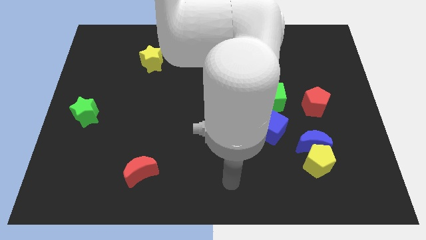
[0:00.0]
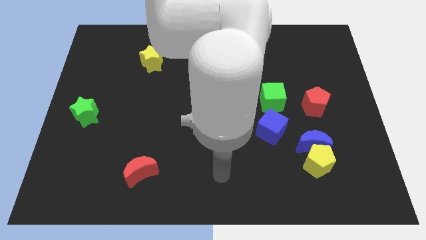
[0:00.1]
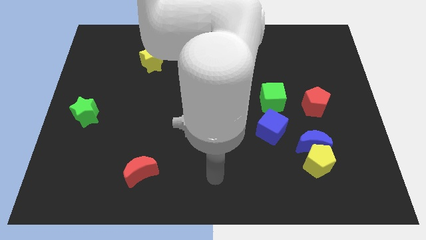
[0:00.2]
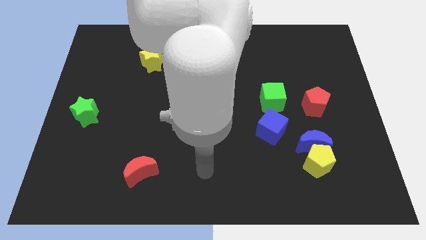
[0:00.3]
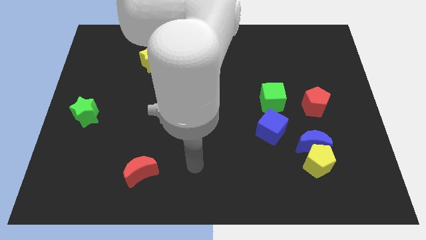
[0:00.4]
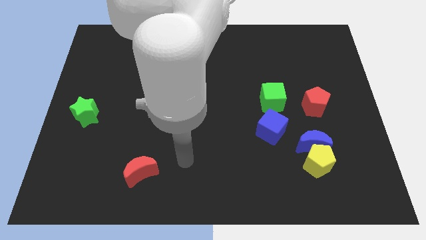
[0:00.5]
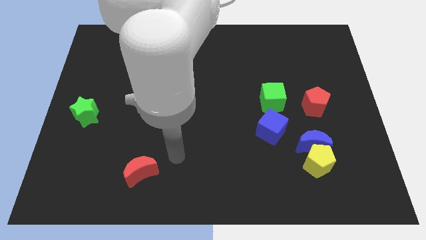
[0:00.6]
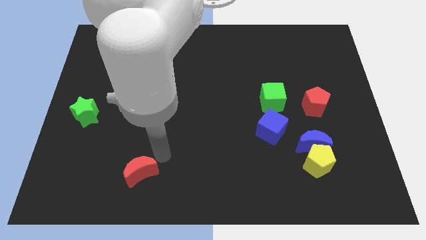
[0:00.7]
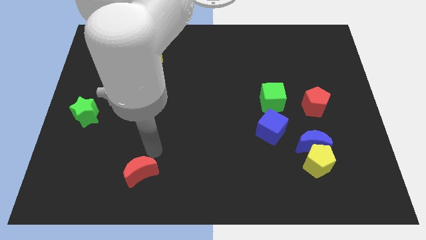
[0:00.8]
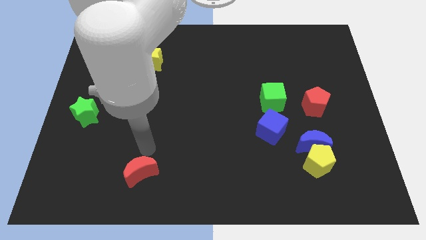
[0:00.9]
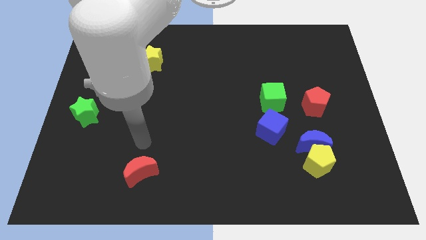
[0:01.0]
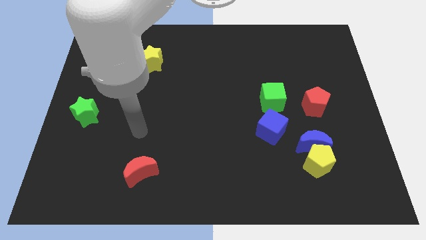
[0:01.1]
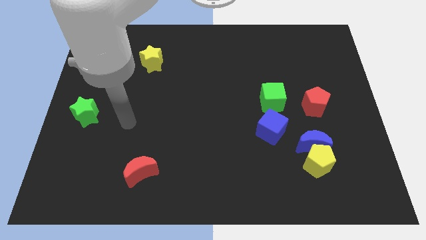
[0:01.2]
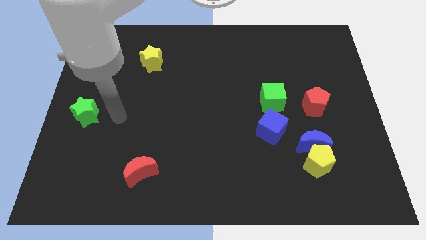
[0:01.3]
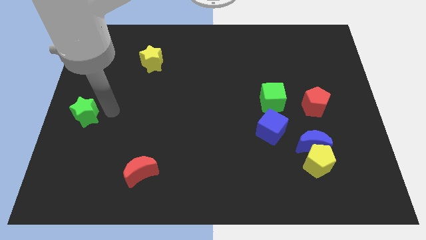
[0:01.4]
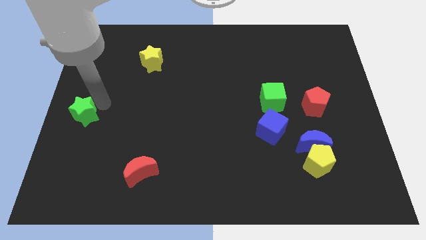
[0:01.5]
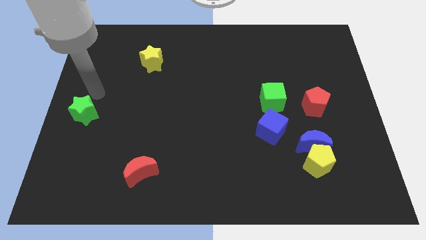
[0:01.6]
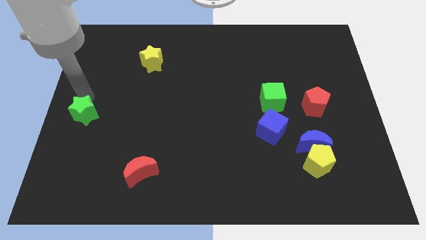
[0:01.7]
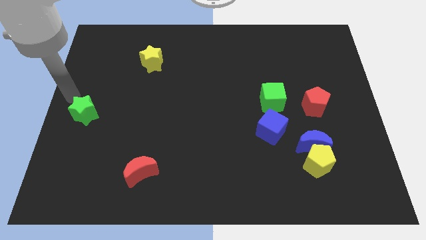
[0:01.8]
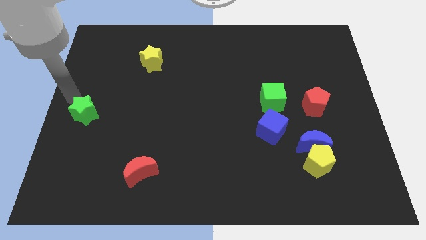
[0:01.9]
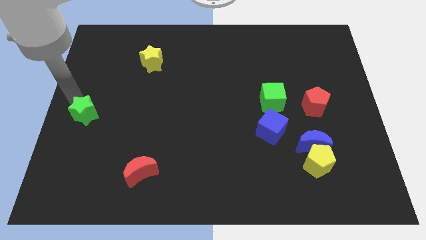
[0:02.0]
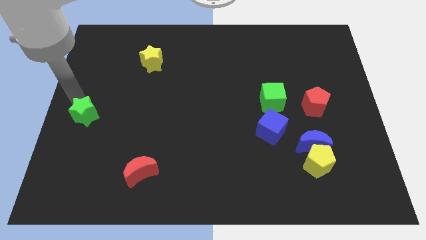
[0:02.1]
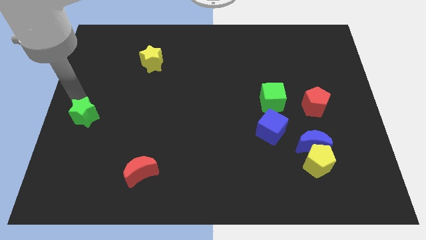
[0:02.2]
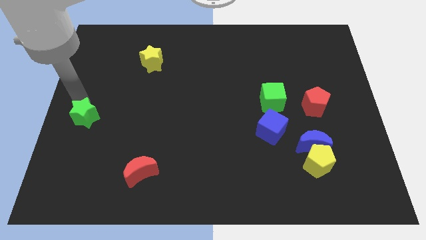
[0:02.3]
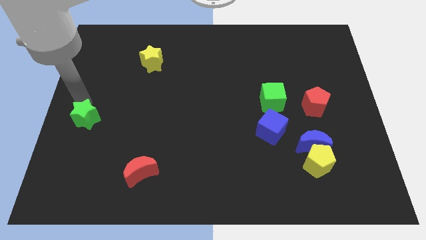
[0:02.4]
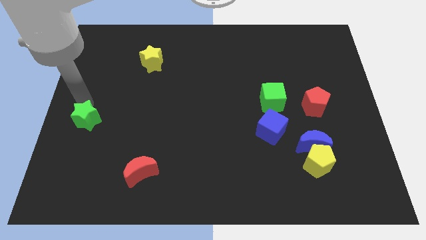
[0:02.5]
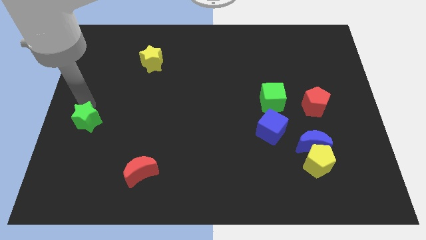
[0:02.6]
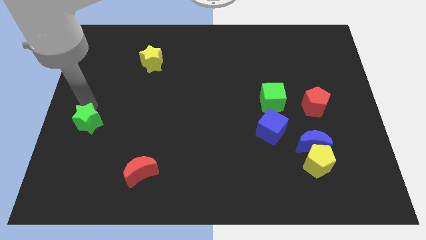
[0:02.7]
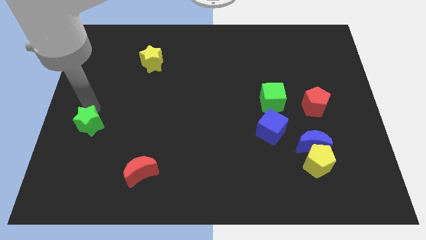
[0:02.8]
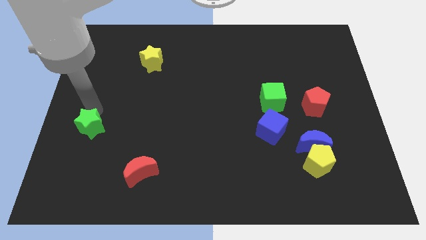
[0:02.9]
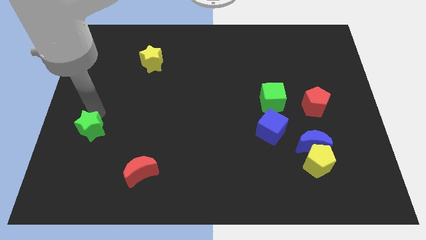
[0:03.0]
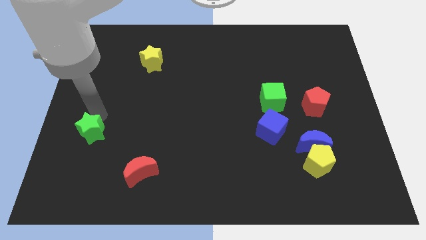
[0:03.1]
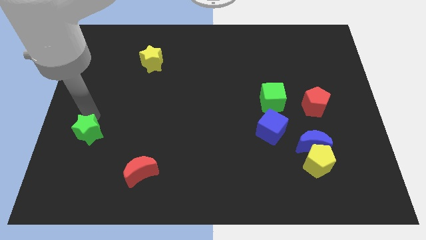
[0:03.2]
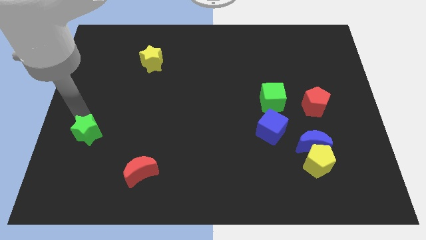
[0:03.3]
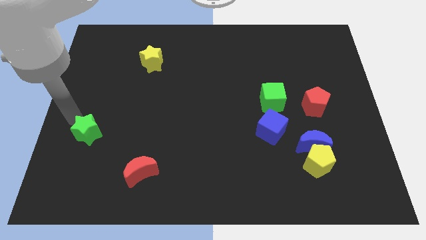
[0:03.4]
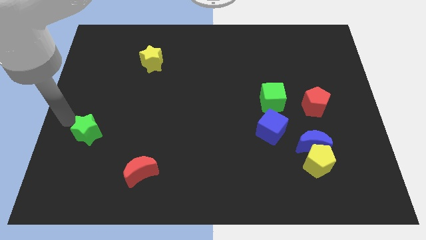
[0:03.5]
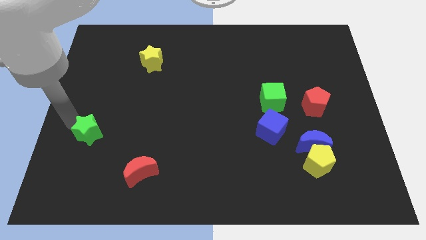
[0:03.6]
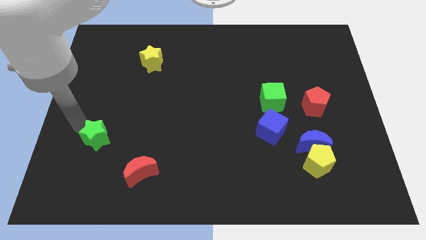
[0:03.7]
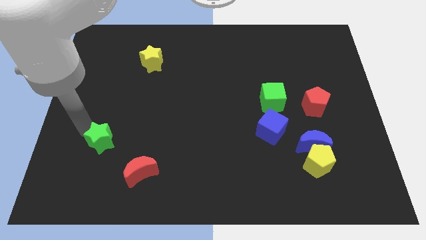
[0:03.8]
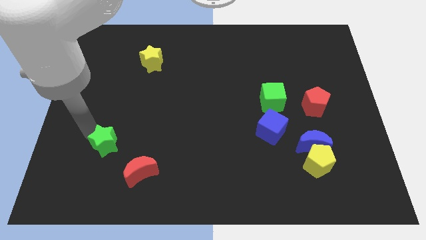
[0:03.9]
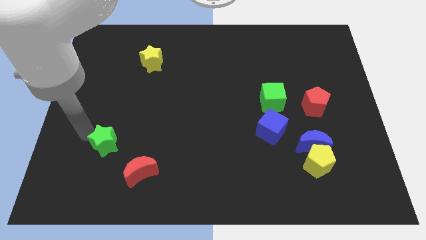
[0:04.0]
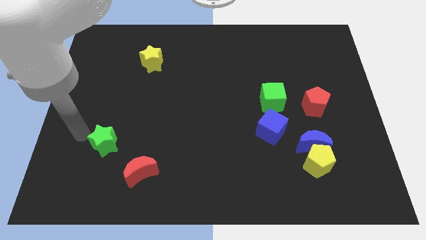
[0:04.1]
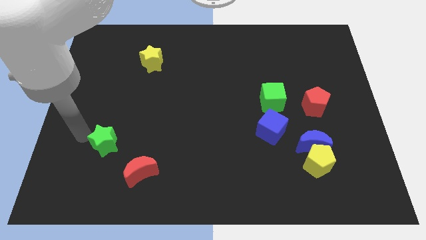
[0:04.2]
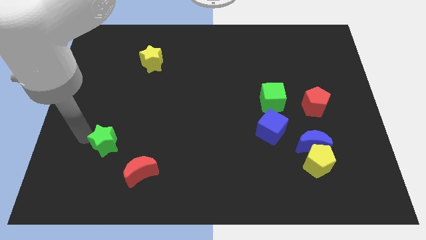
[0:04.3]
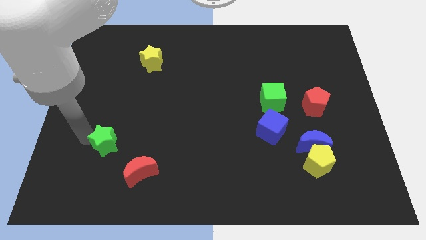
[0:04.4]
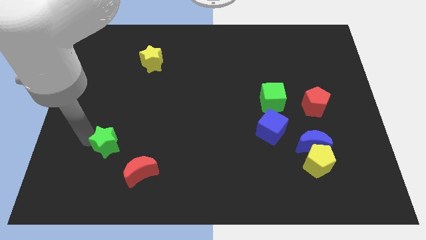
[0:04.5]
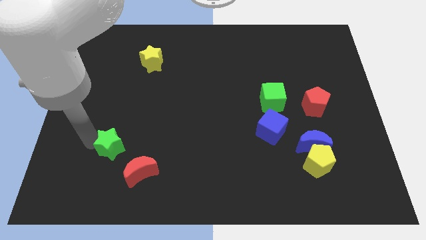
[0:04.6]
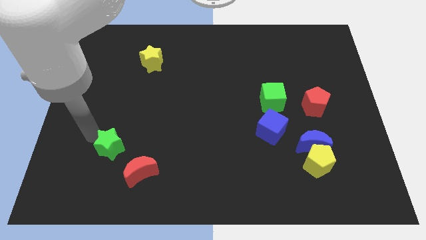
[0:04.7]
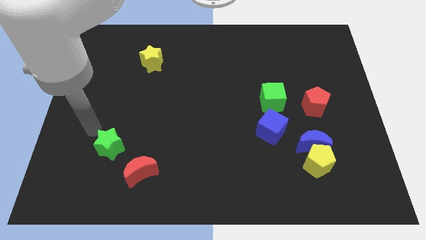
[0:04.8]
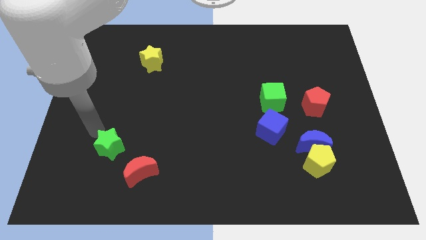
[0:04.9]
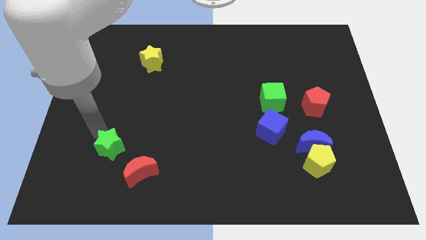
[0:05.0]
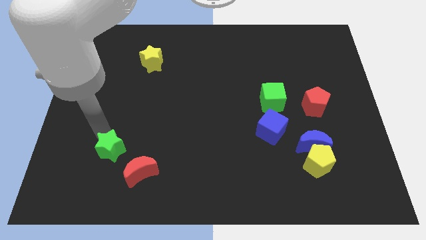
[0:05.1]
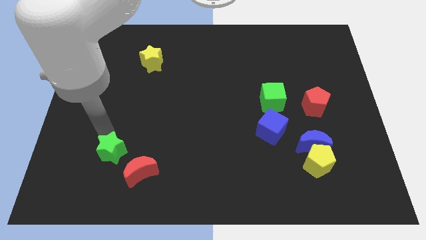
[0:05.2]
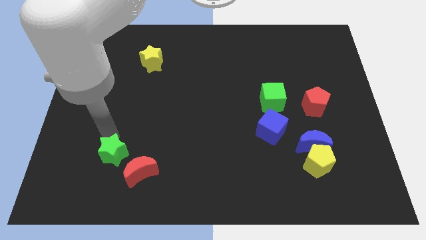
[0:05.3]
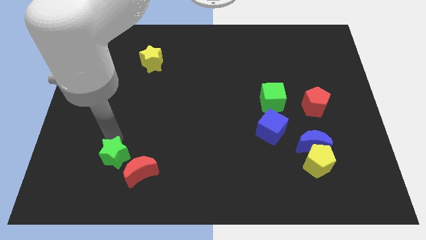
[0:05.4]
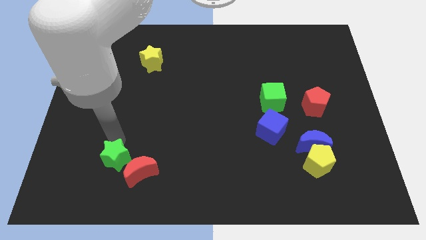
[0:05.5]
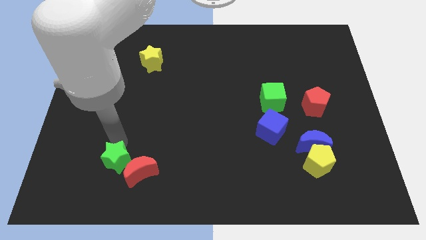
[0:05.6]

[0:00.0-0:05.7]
push the green star next to the red moon

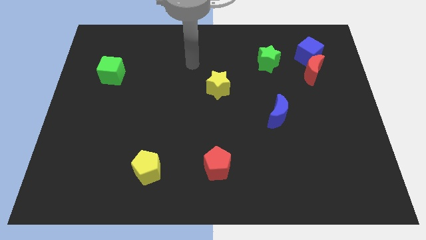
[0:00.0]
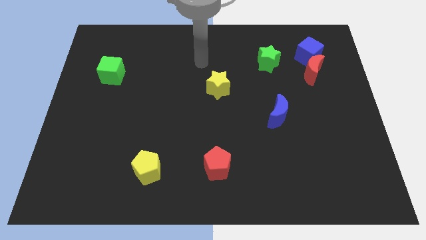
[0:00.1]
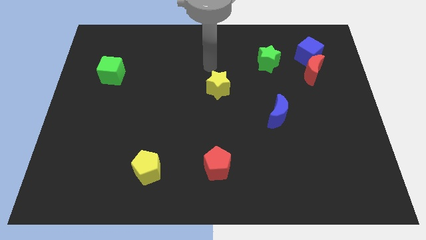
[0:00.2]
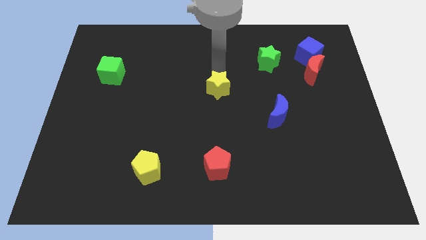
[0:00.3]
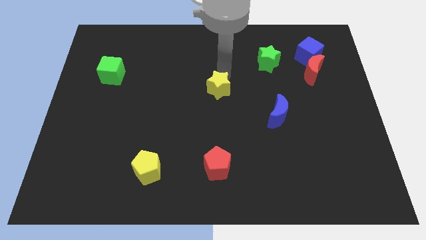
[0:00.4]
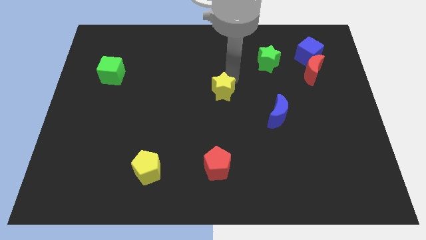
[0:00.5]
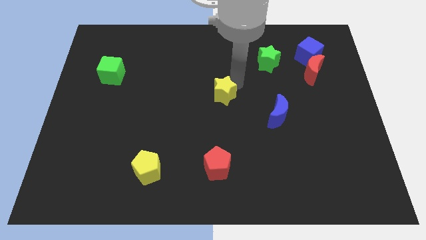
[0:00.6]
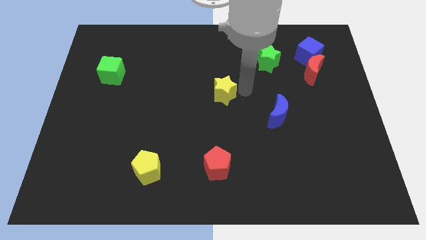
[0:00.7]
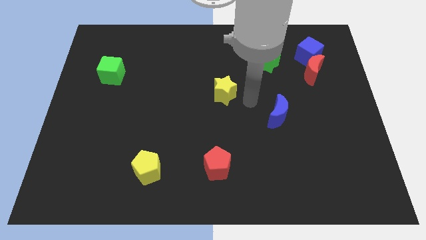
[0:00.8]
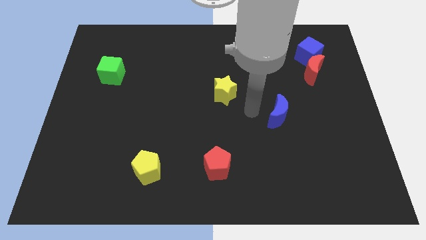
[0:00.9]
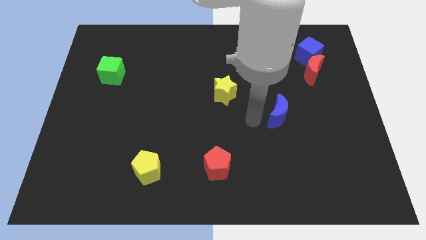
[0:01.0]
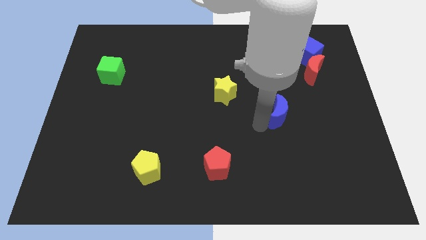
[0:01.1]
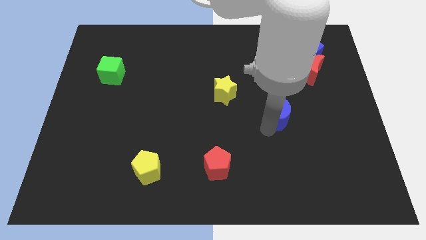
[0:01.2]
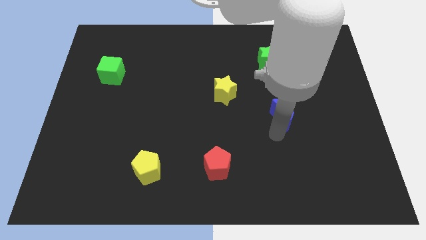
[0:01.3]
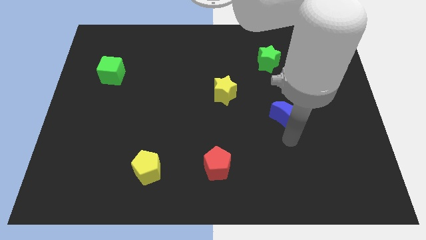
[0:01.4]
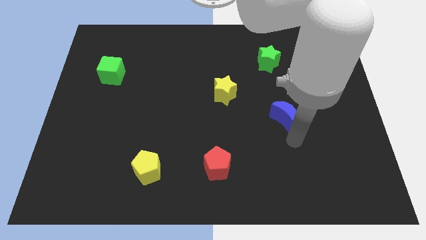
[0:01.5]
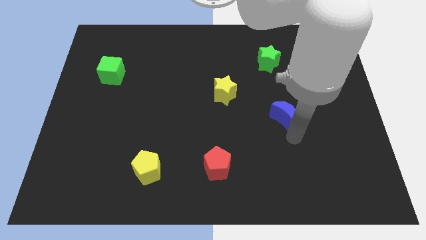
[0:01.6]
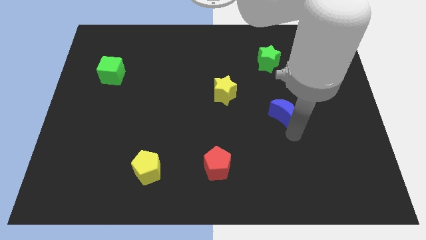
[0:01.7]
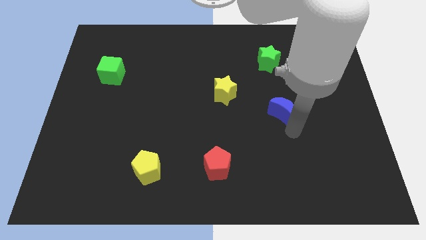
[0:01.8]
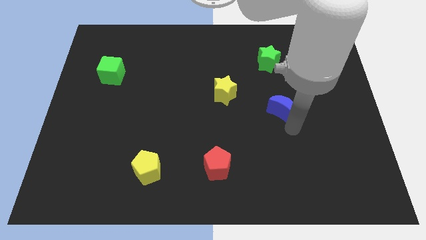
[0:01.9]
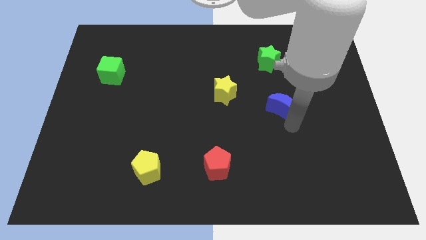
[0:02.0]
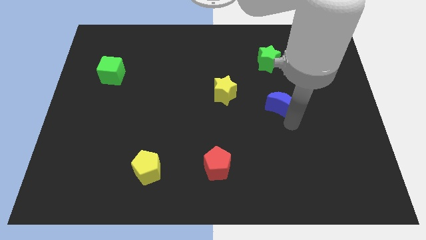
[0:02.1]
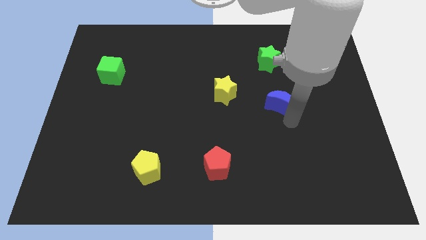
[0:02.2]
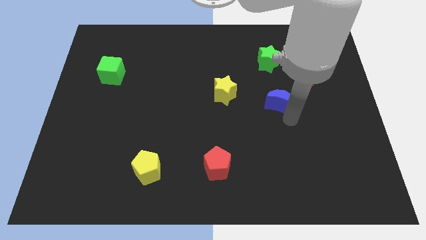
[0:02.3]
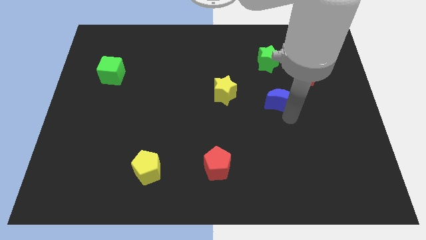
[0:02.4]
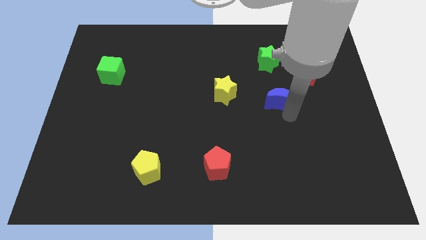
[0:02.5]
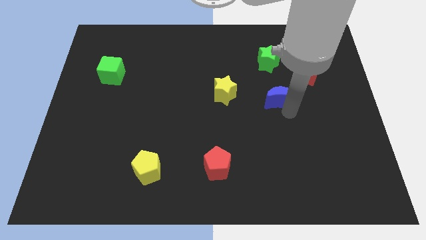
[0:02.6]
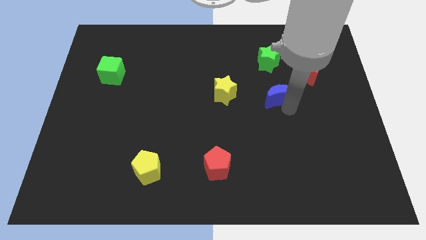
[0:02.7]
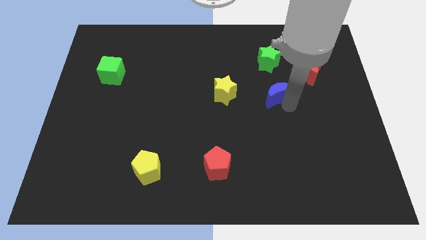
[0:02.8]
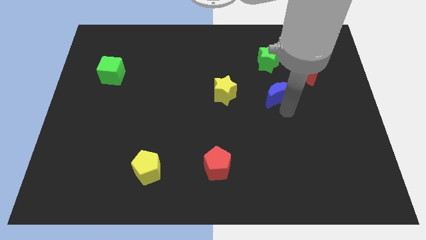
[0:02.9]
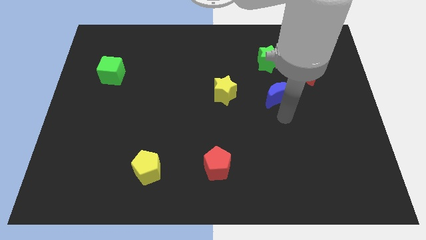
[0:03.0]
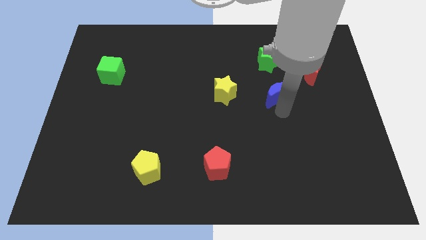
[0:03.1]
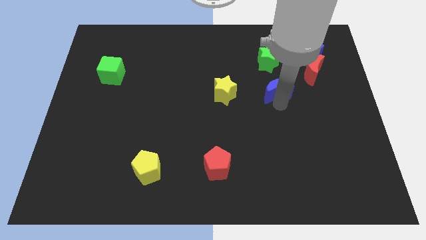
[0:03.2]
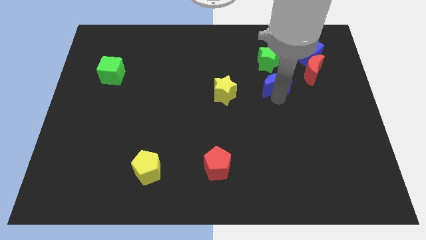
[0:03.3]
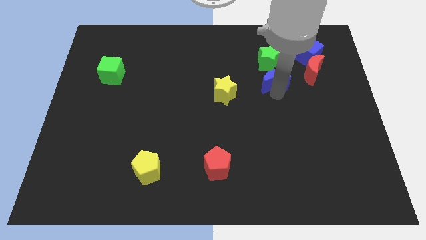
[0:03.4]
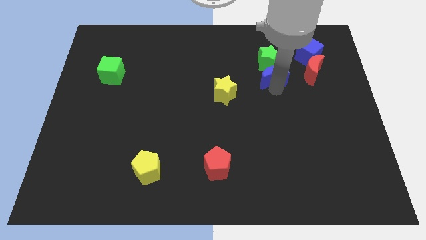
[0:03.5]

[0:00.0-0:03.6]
slide the blue moon close to the green star
